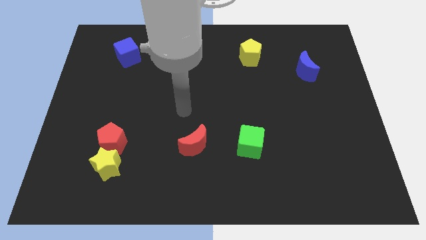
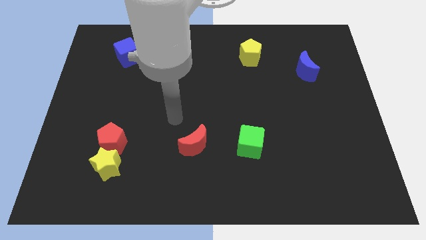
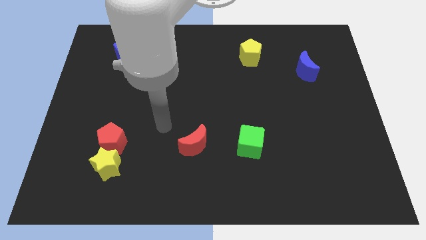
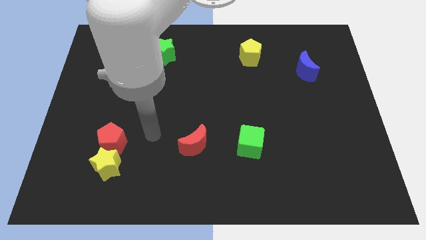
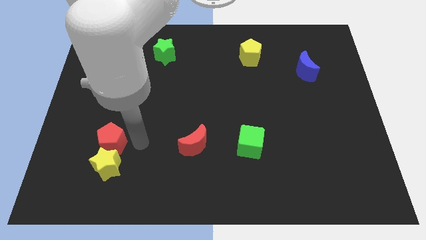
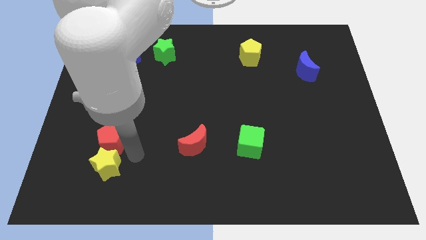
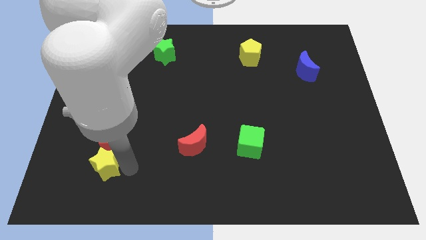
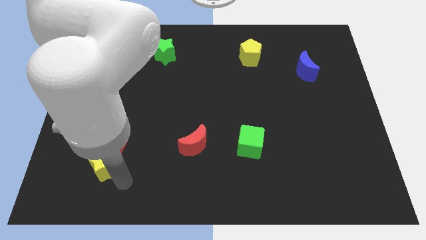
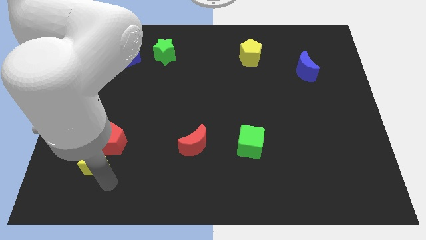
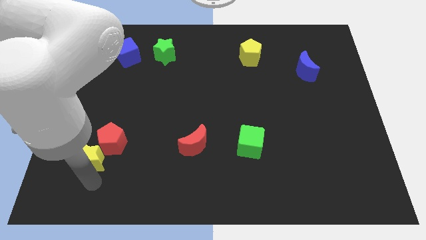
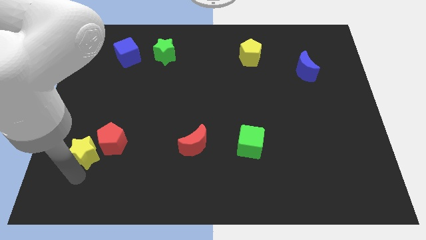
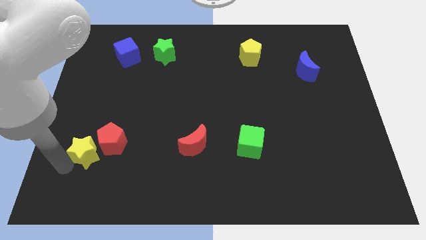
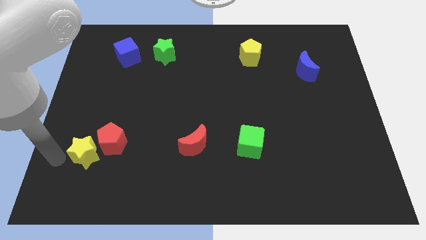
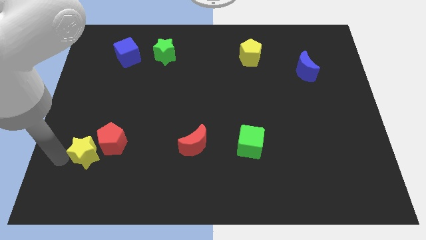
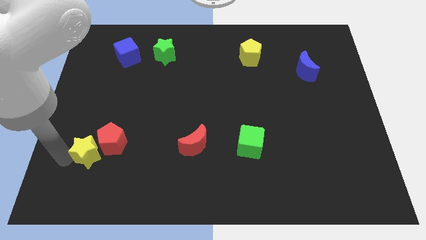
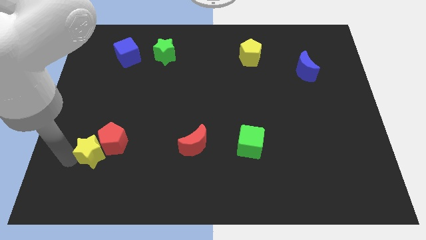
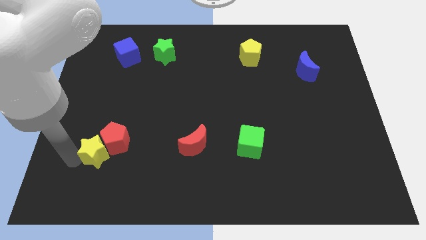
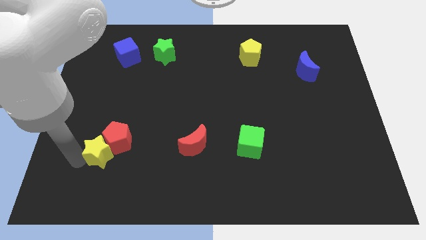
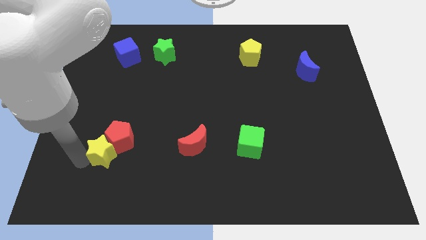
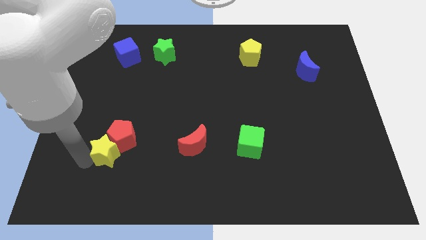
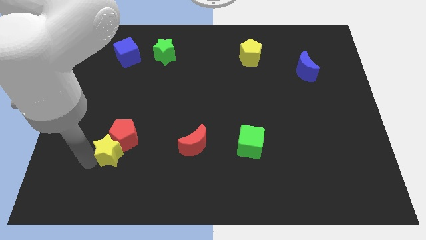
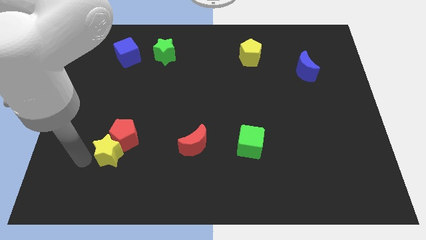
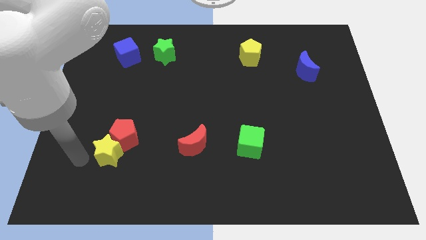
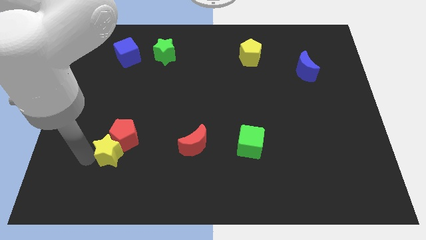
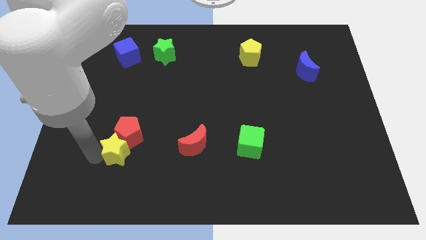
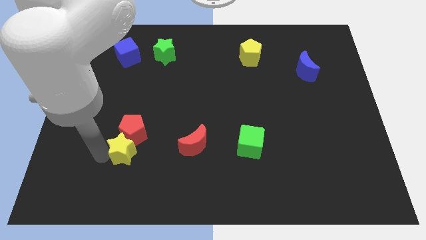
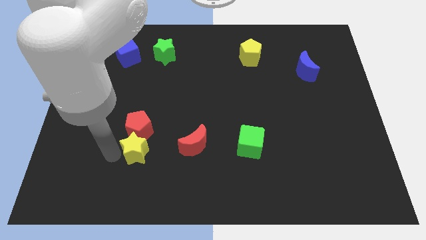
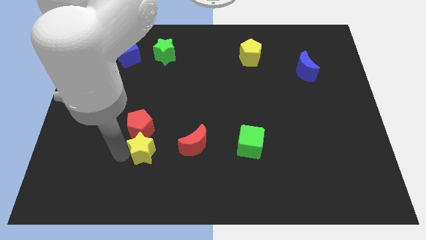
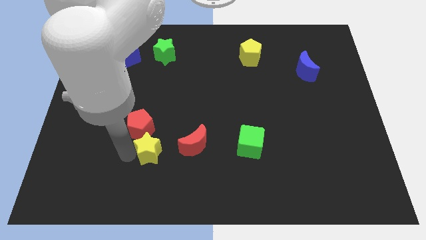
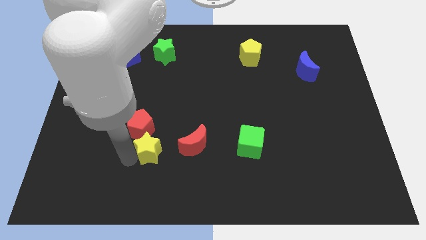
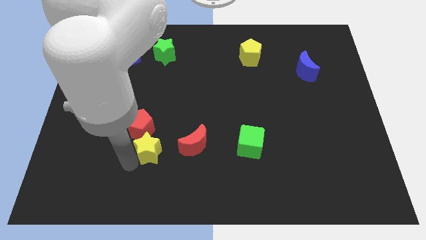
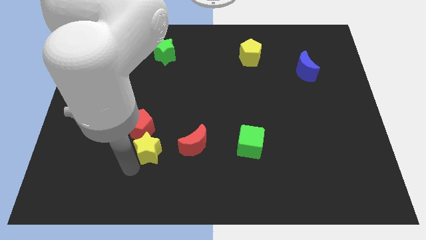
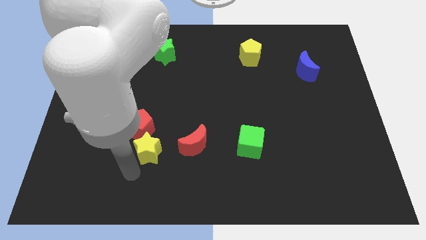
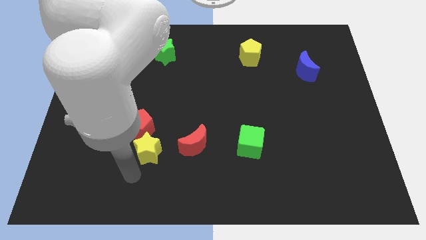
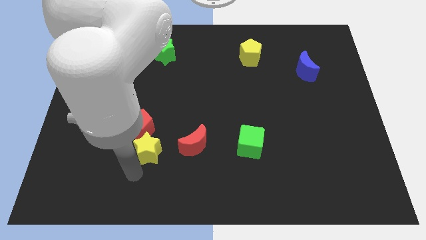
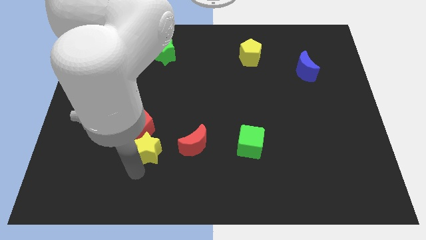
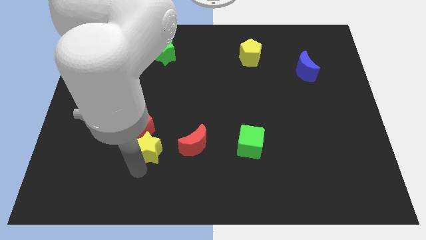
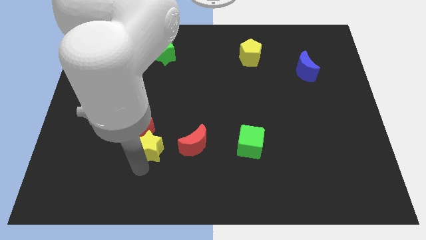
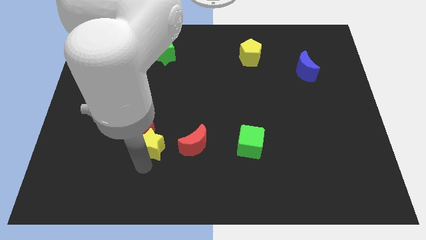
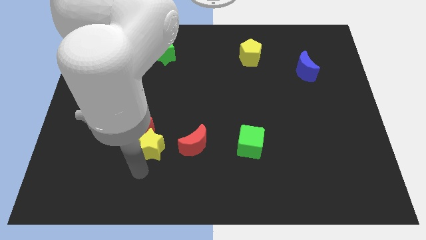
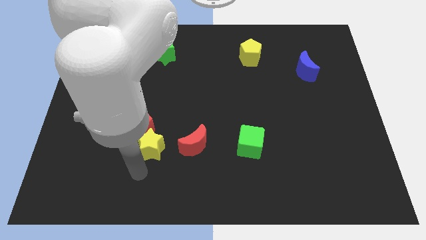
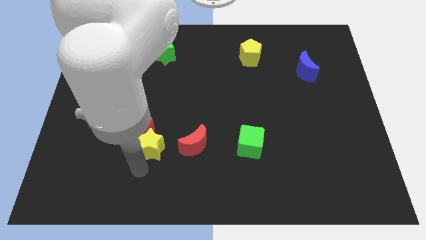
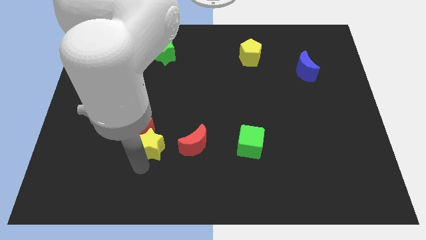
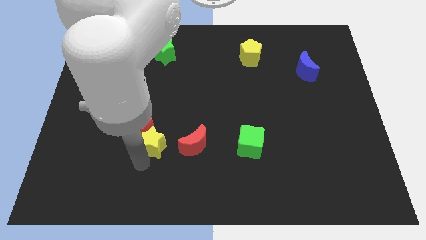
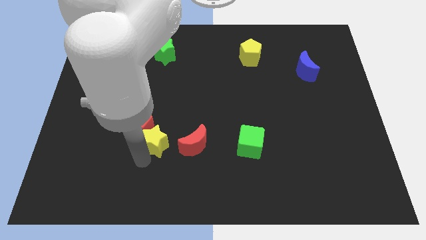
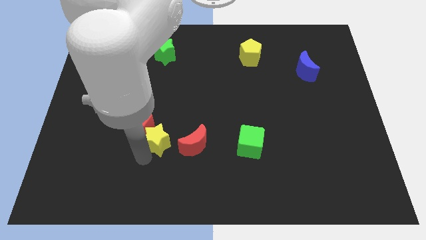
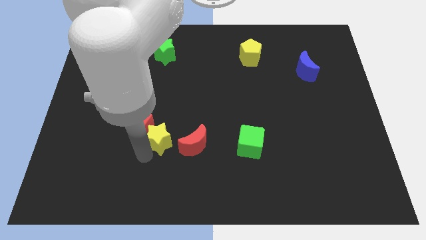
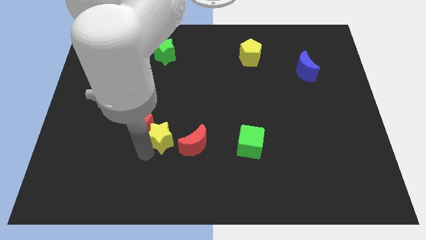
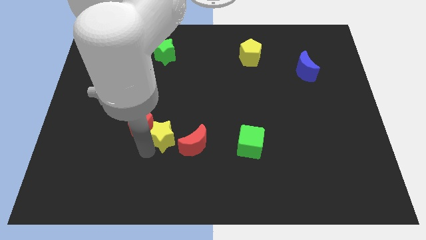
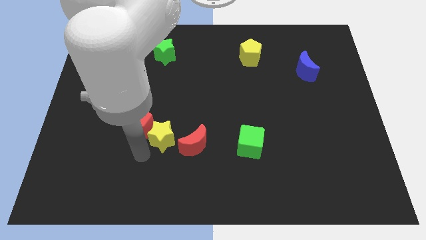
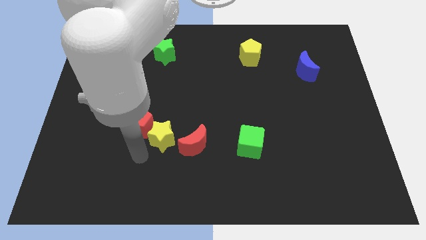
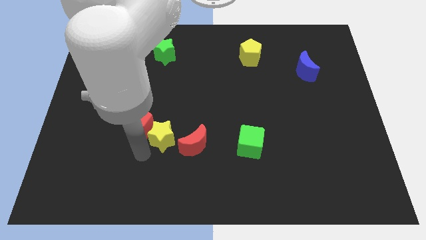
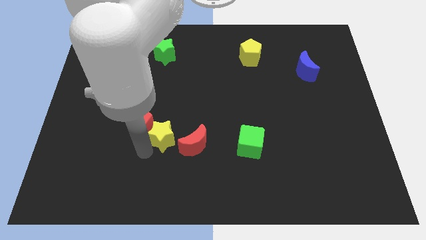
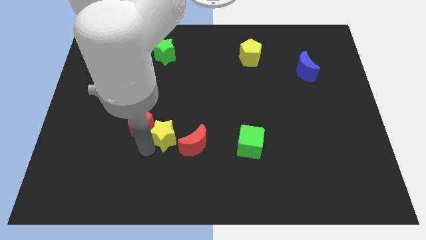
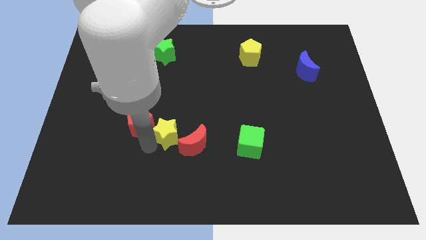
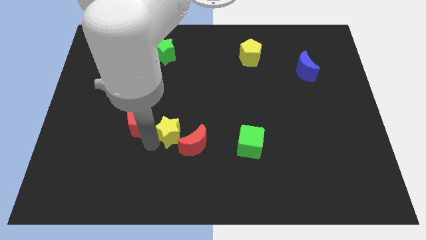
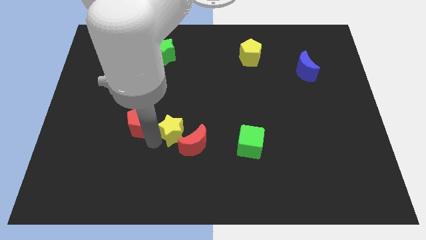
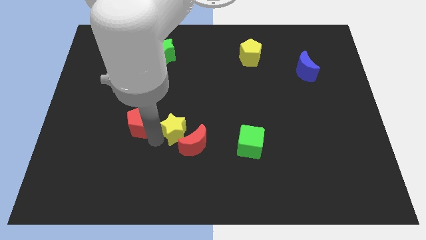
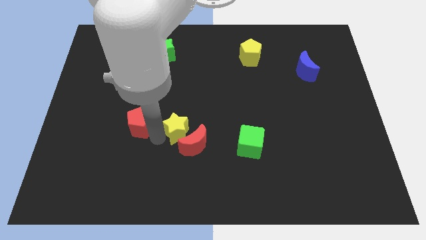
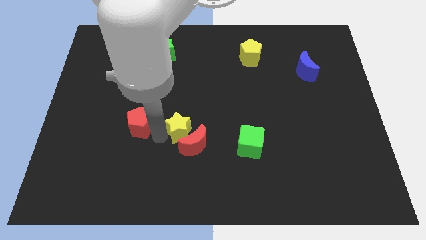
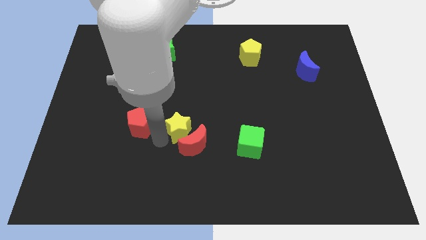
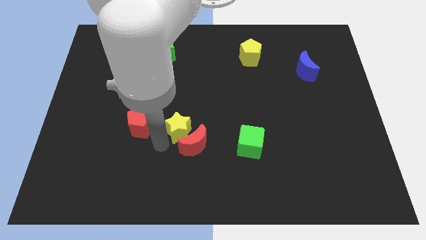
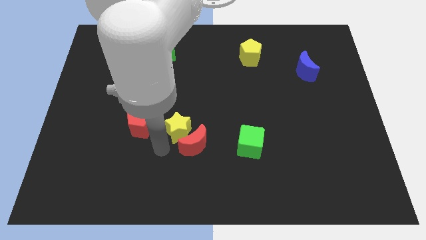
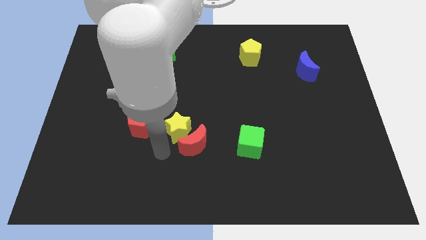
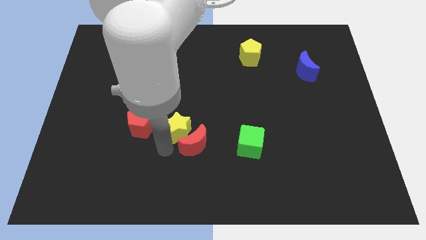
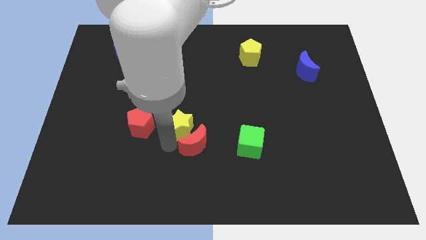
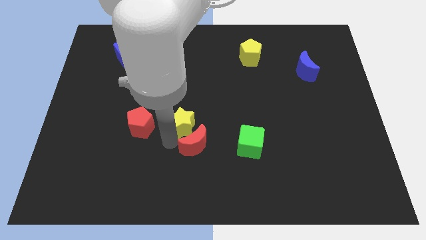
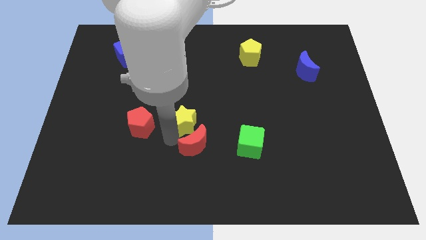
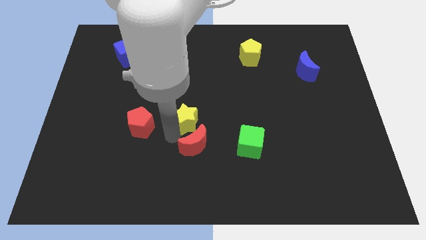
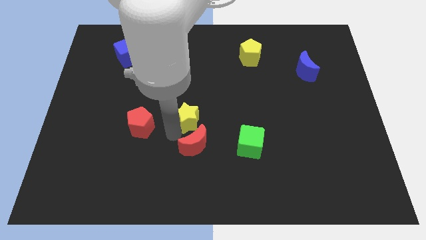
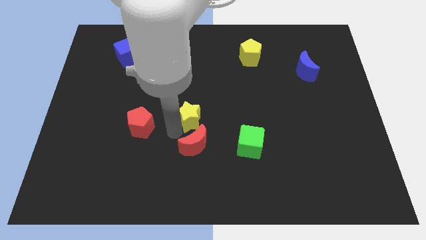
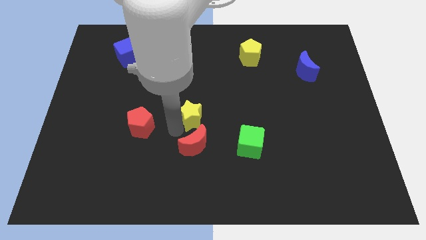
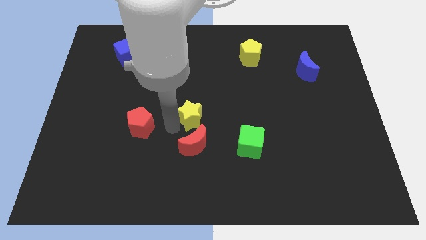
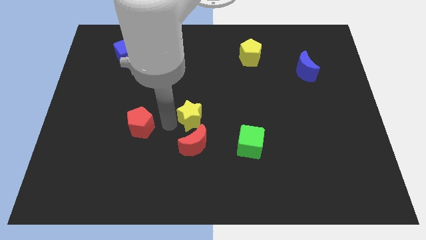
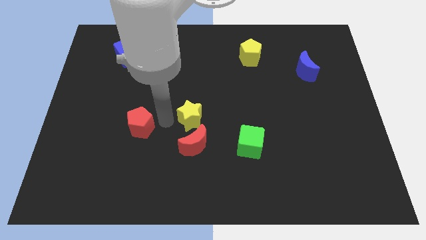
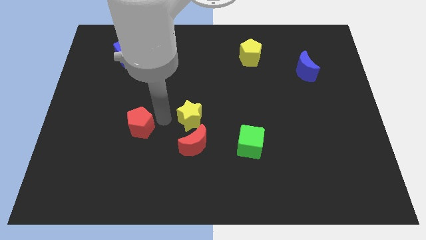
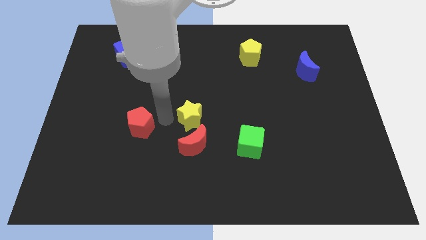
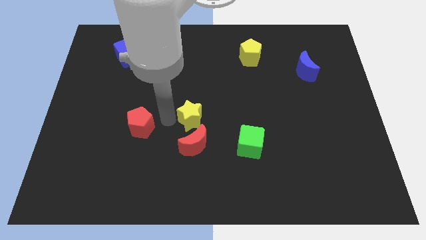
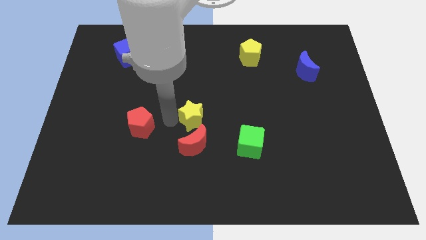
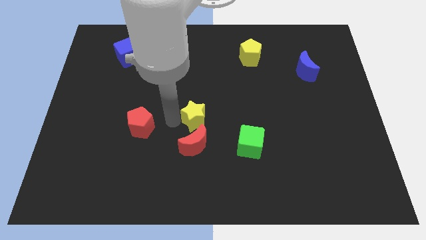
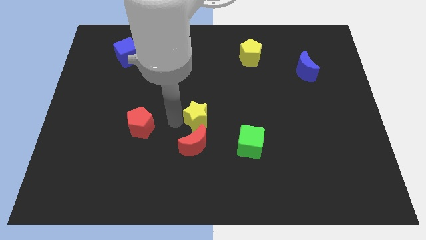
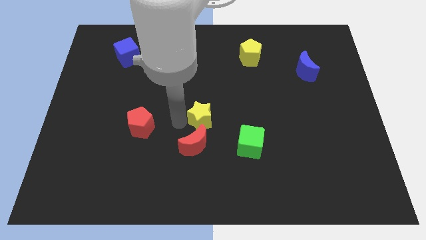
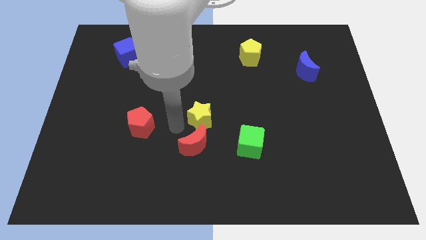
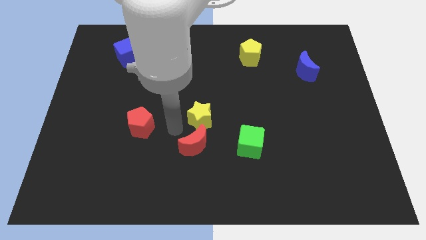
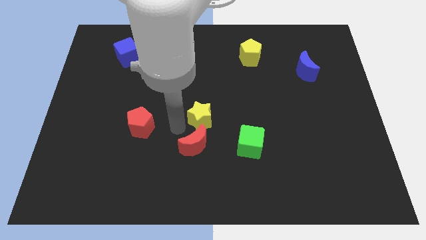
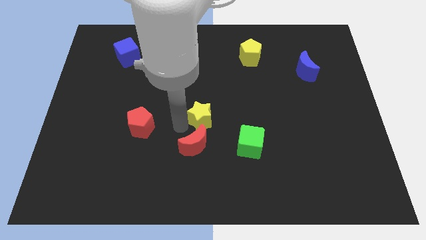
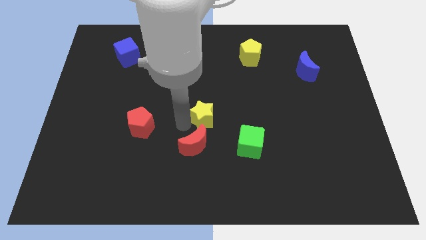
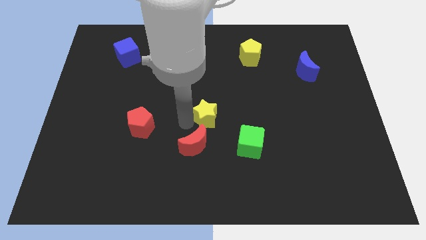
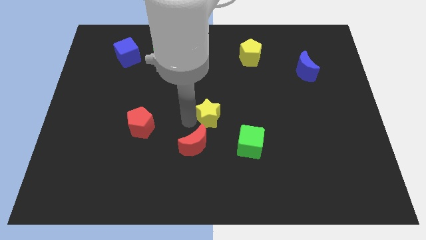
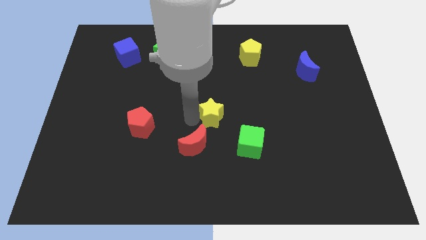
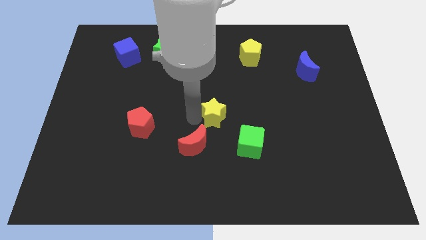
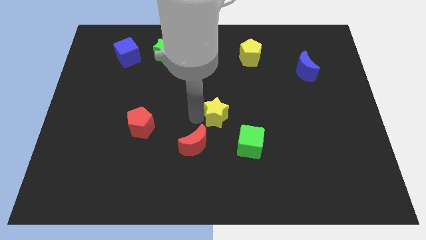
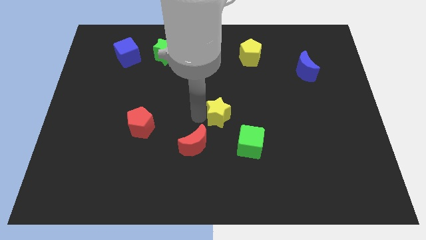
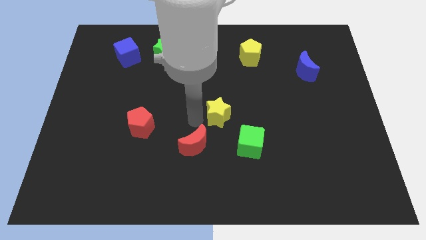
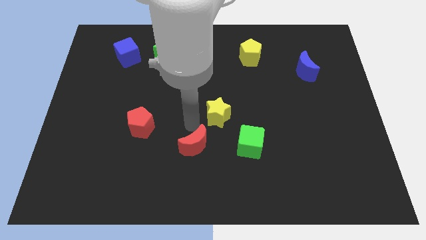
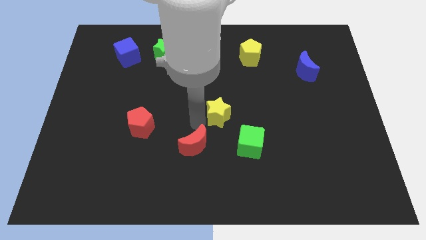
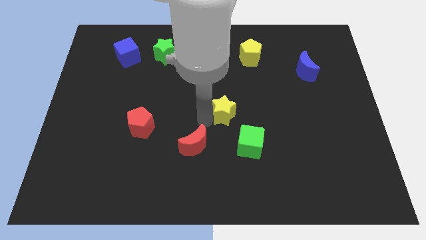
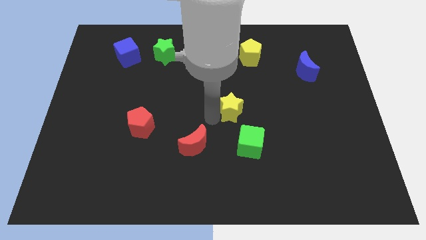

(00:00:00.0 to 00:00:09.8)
put the yellow star above the green cube
